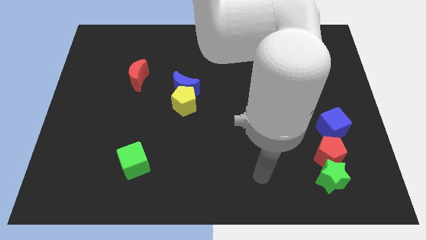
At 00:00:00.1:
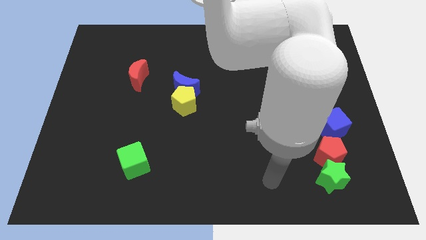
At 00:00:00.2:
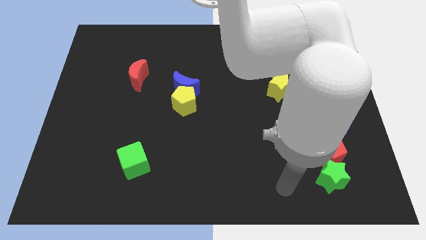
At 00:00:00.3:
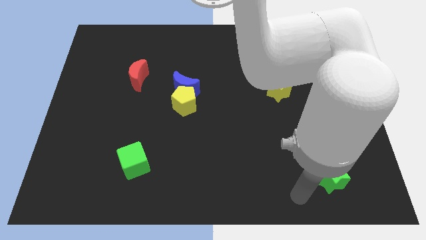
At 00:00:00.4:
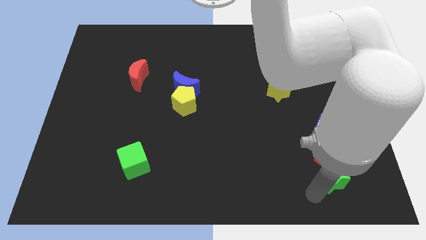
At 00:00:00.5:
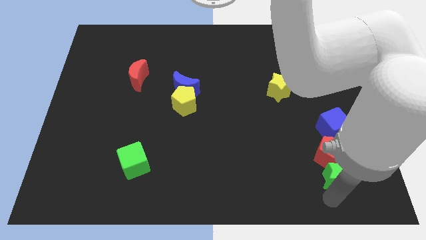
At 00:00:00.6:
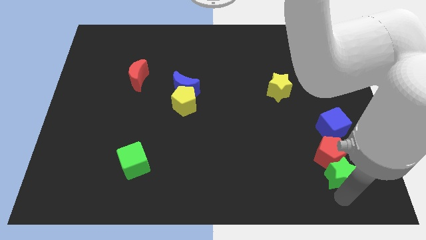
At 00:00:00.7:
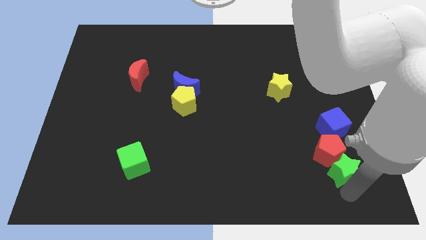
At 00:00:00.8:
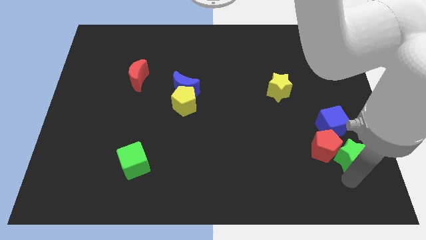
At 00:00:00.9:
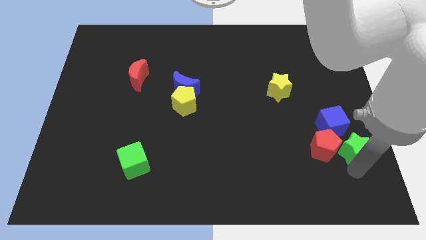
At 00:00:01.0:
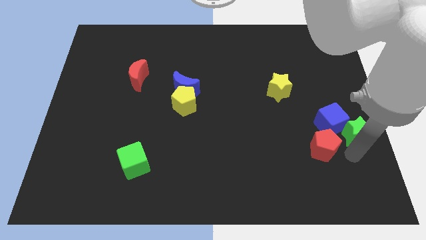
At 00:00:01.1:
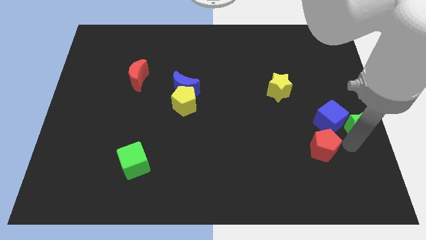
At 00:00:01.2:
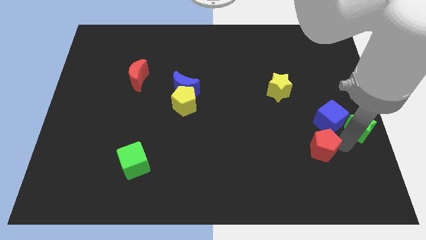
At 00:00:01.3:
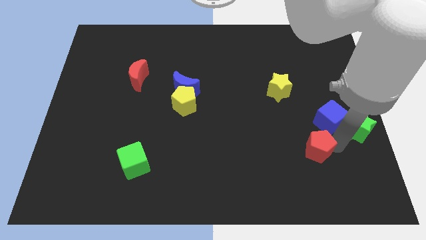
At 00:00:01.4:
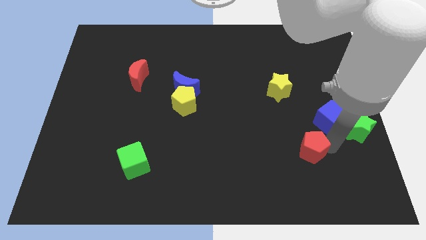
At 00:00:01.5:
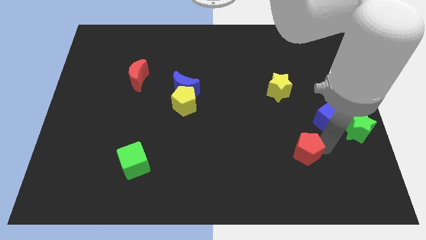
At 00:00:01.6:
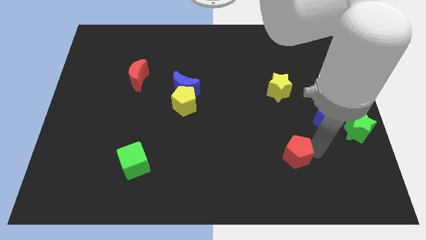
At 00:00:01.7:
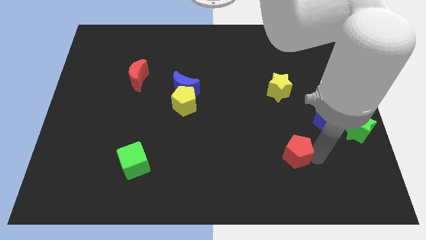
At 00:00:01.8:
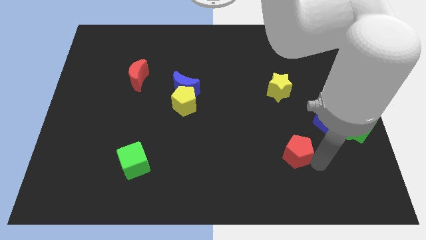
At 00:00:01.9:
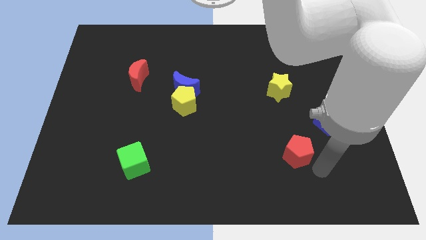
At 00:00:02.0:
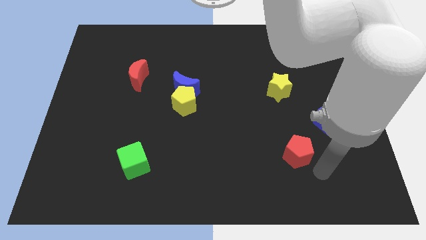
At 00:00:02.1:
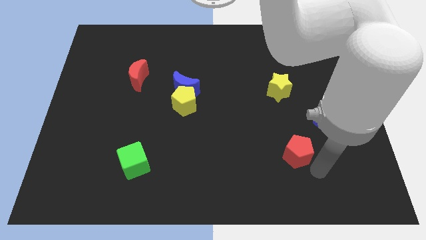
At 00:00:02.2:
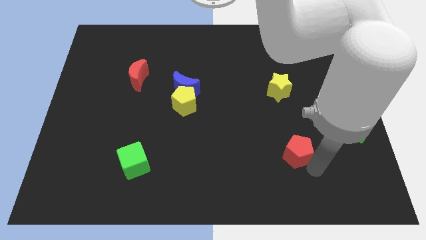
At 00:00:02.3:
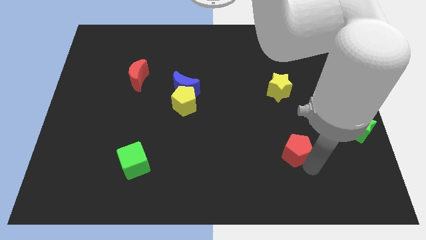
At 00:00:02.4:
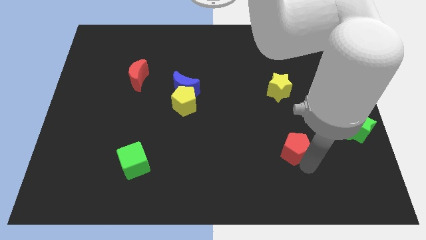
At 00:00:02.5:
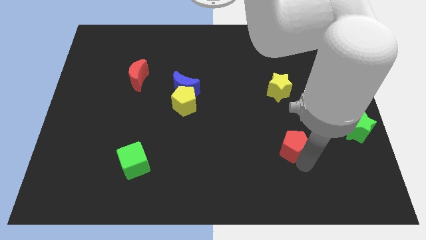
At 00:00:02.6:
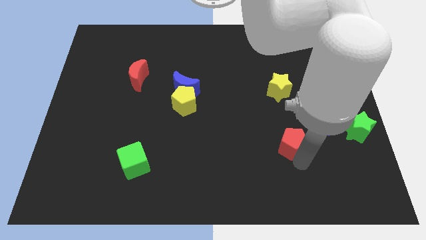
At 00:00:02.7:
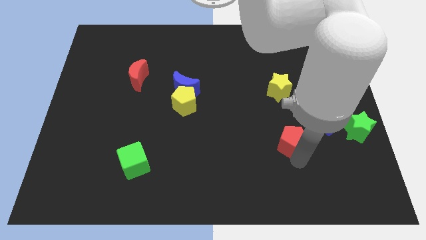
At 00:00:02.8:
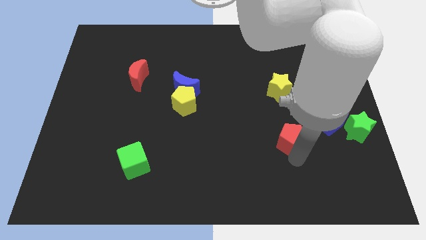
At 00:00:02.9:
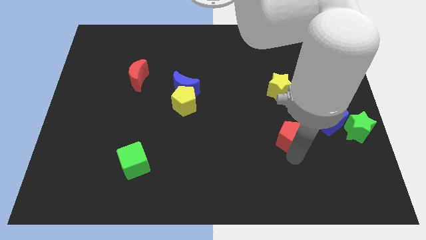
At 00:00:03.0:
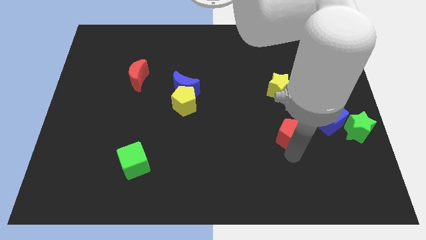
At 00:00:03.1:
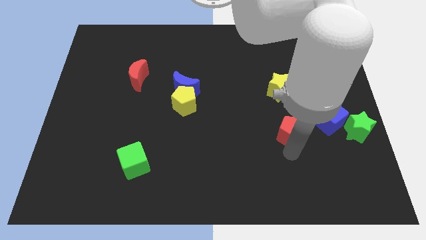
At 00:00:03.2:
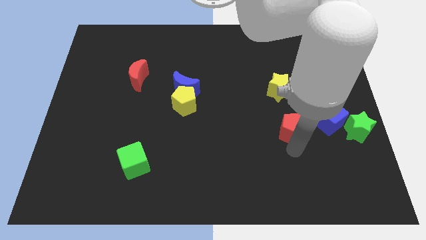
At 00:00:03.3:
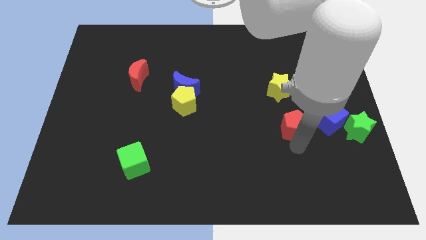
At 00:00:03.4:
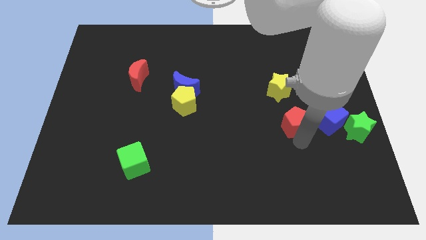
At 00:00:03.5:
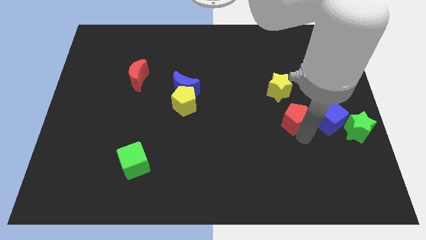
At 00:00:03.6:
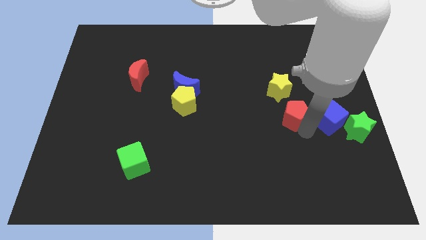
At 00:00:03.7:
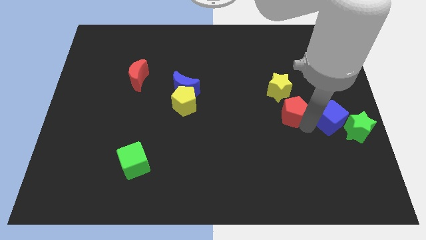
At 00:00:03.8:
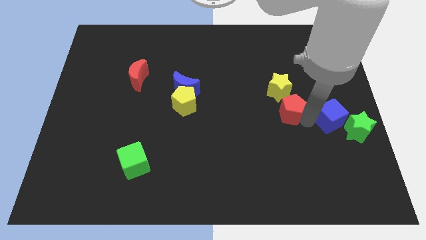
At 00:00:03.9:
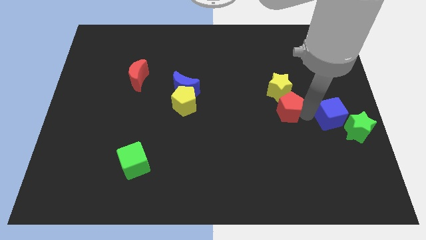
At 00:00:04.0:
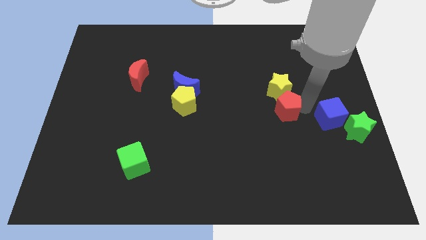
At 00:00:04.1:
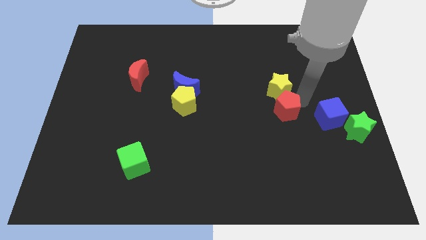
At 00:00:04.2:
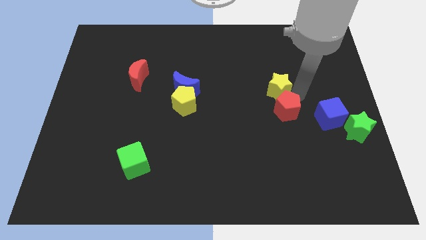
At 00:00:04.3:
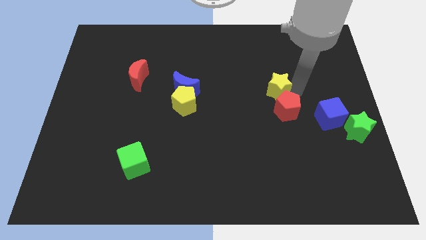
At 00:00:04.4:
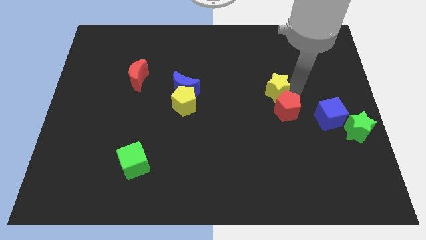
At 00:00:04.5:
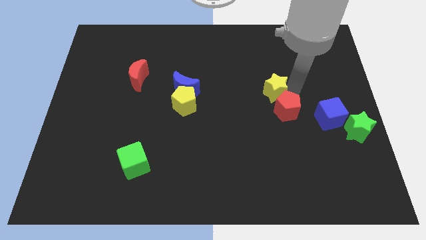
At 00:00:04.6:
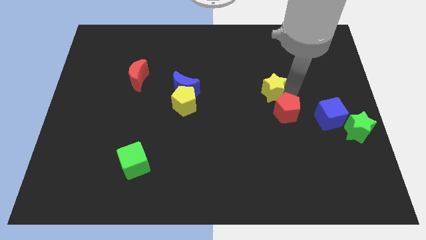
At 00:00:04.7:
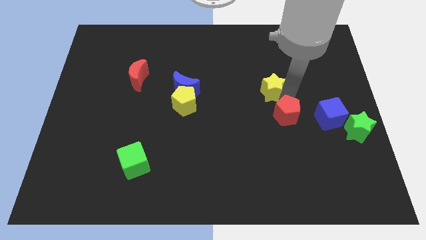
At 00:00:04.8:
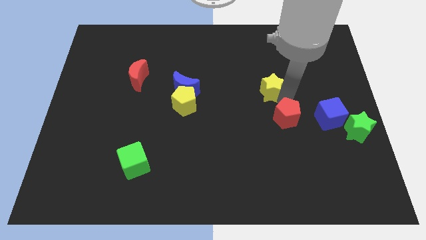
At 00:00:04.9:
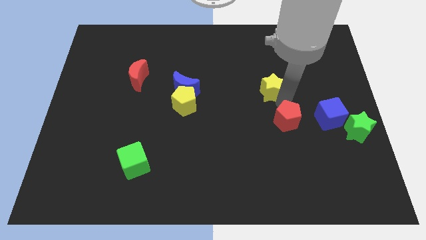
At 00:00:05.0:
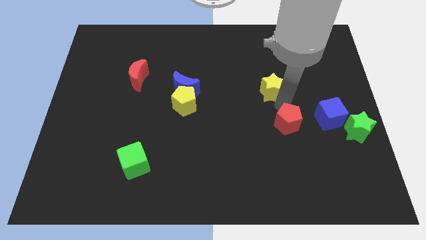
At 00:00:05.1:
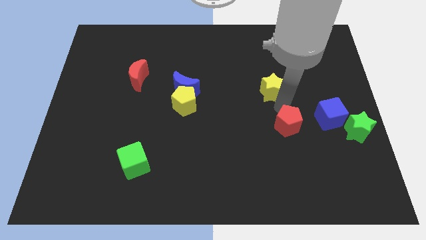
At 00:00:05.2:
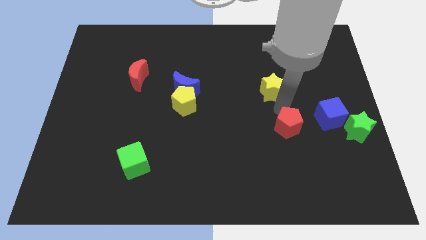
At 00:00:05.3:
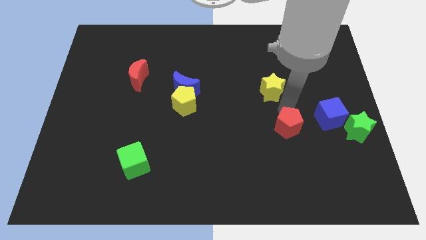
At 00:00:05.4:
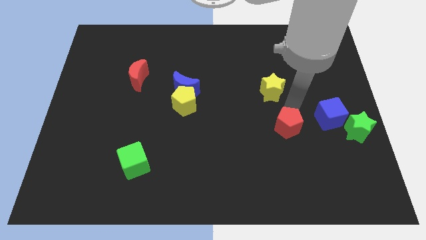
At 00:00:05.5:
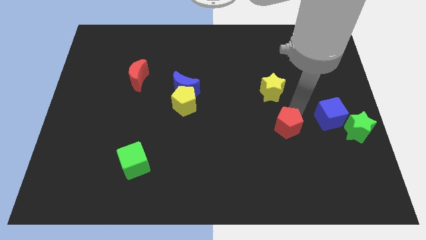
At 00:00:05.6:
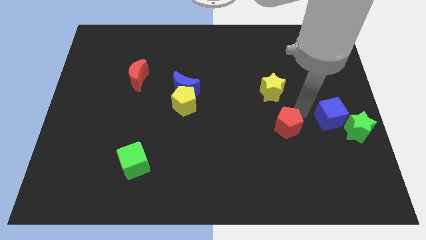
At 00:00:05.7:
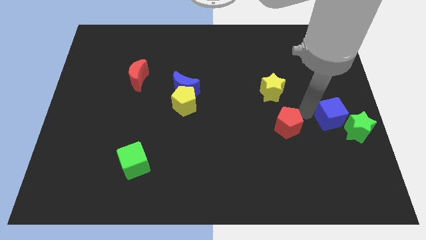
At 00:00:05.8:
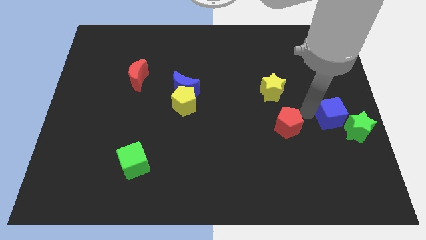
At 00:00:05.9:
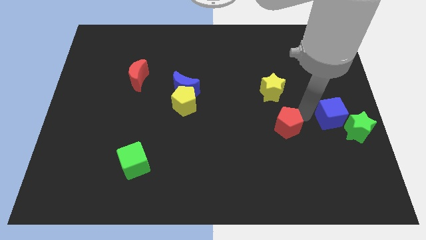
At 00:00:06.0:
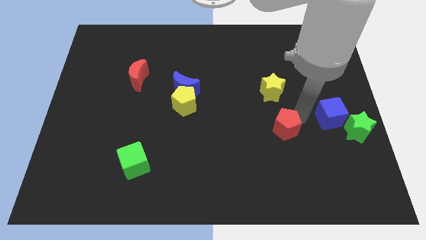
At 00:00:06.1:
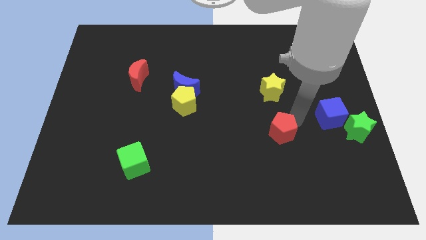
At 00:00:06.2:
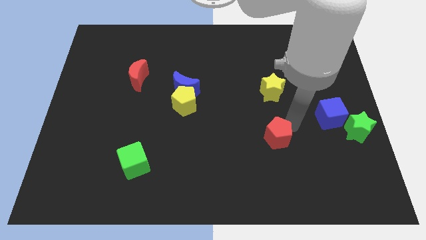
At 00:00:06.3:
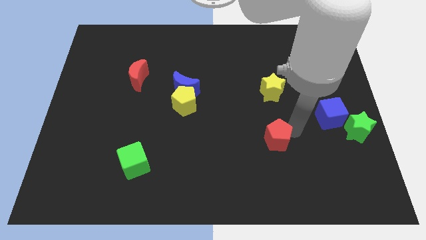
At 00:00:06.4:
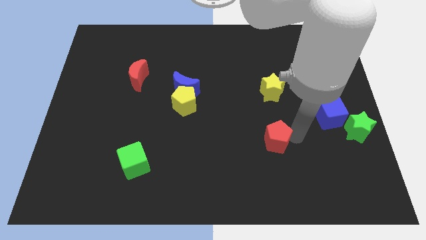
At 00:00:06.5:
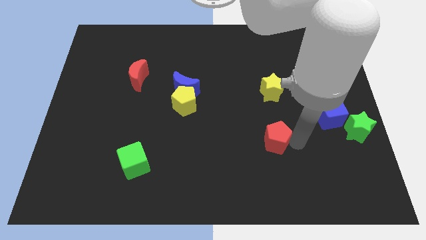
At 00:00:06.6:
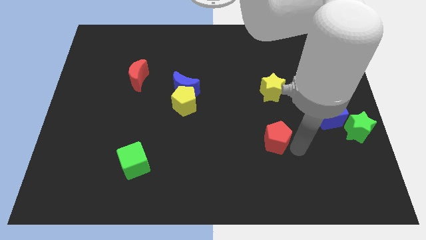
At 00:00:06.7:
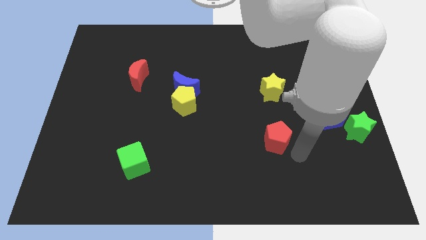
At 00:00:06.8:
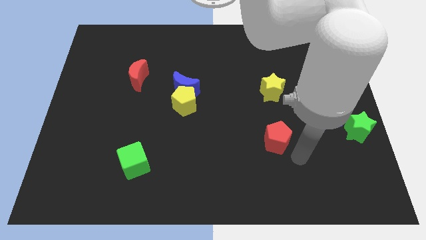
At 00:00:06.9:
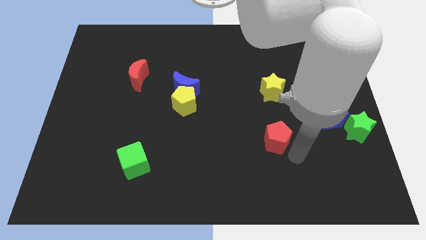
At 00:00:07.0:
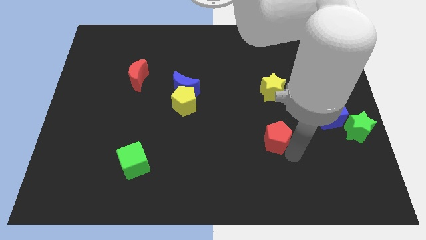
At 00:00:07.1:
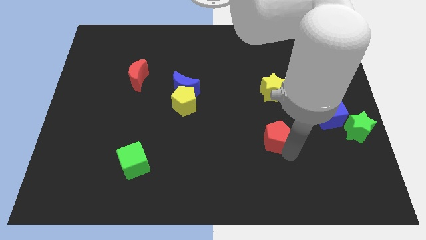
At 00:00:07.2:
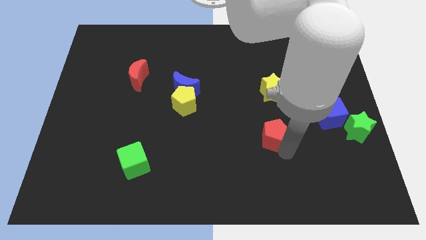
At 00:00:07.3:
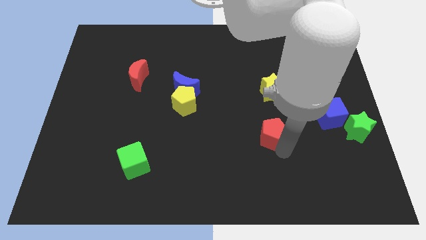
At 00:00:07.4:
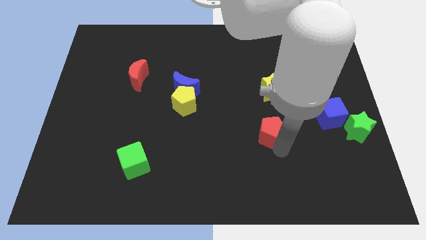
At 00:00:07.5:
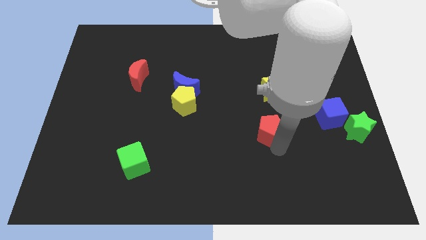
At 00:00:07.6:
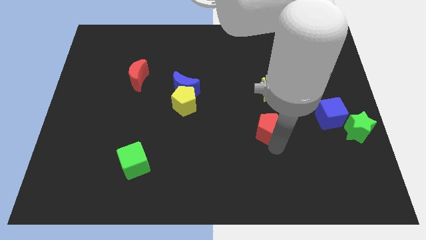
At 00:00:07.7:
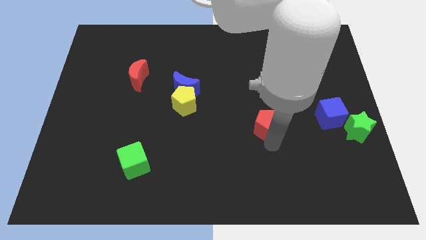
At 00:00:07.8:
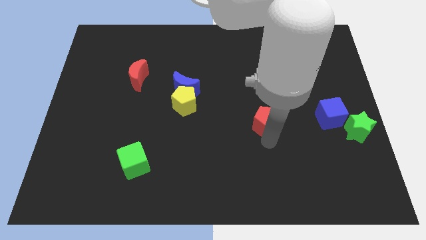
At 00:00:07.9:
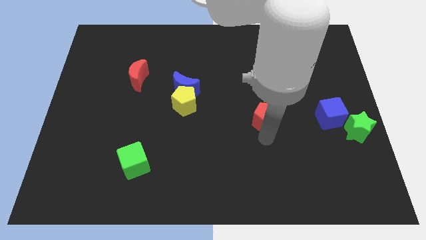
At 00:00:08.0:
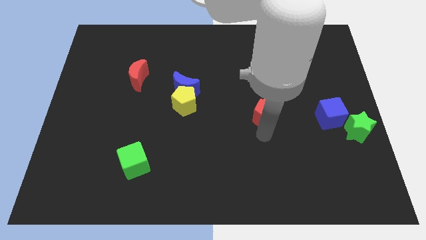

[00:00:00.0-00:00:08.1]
move the red pentagon to the center of the board
